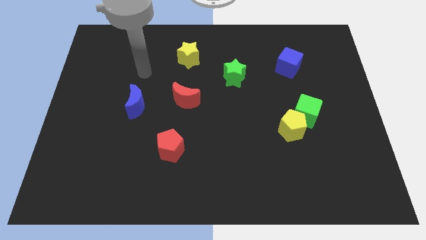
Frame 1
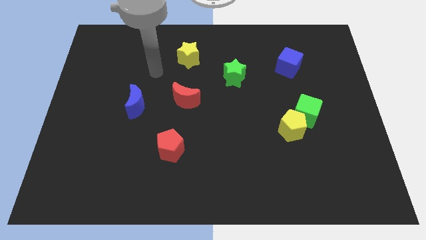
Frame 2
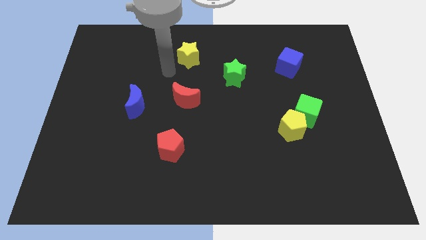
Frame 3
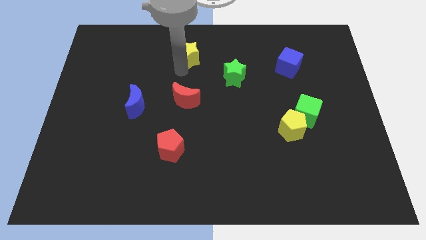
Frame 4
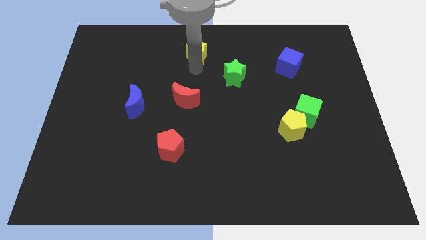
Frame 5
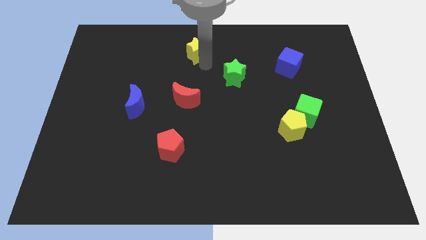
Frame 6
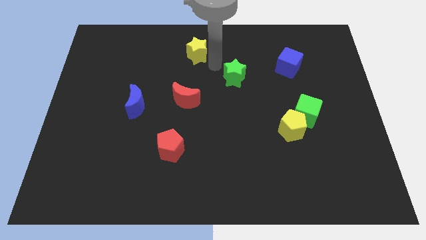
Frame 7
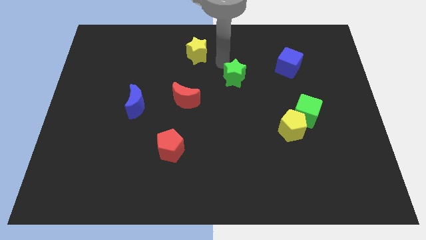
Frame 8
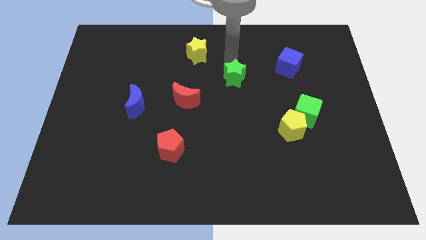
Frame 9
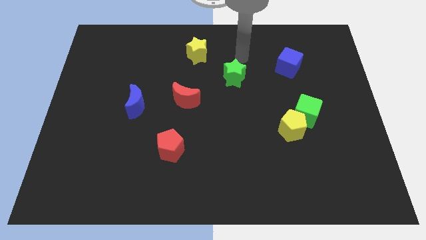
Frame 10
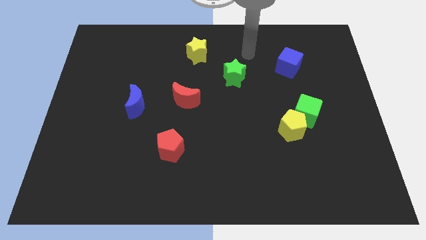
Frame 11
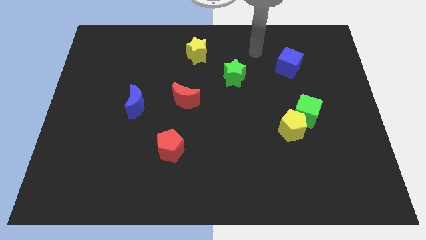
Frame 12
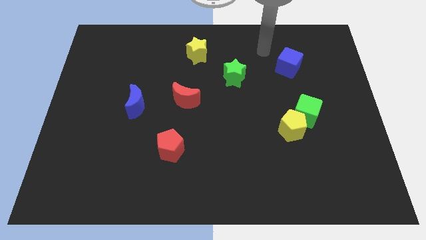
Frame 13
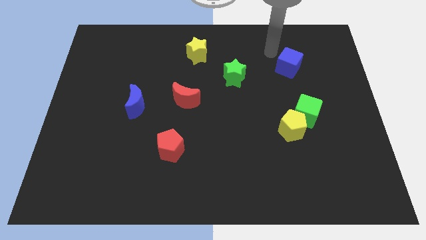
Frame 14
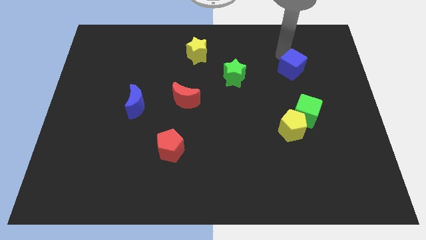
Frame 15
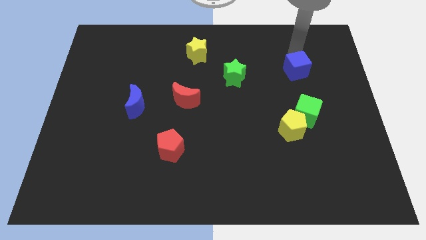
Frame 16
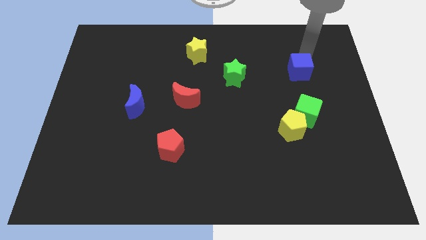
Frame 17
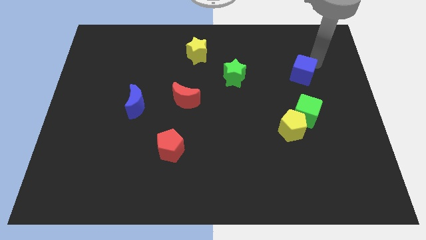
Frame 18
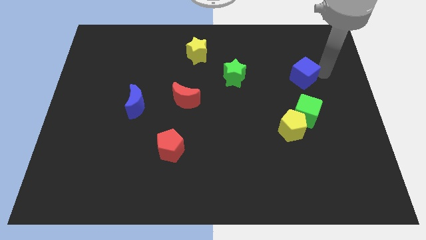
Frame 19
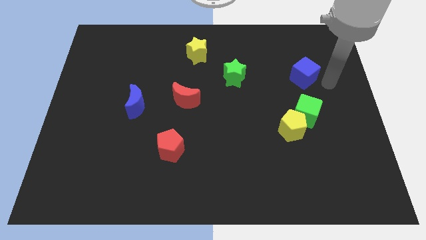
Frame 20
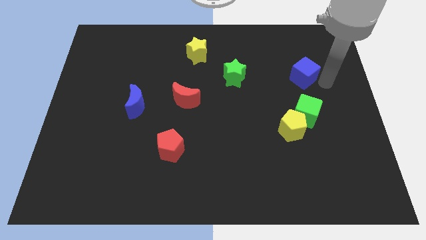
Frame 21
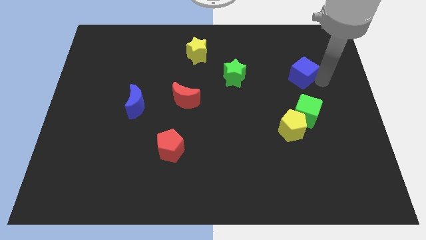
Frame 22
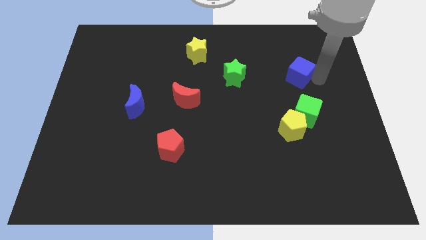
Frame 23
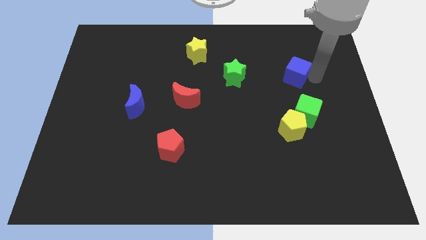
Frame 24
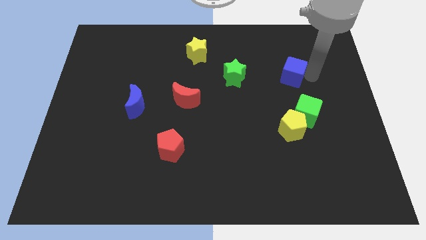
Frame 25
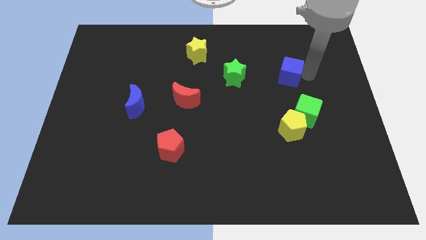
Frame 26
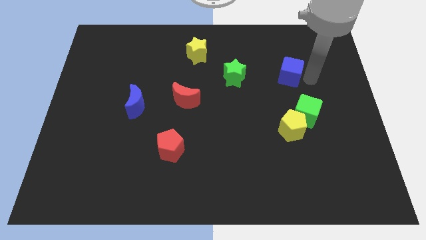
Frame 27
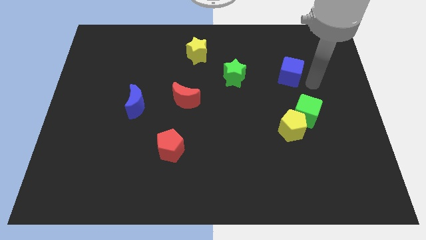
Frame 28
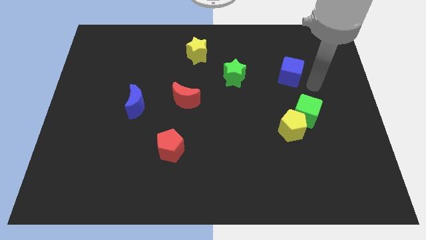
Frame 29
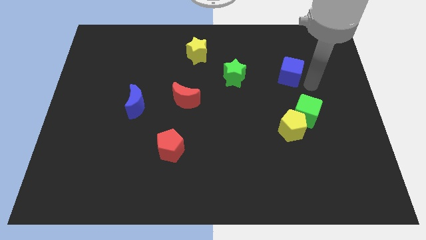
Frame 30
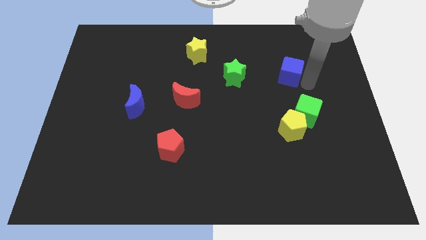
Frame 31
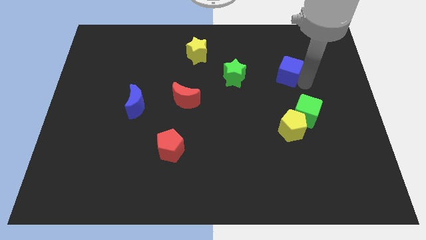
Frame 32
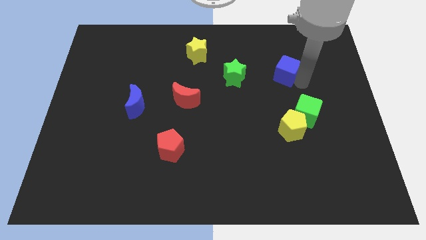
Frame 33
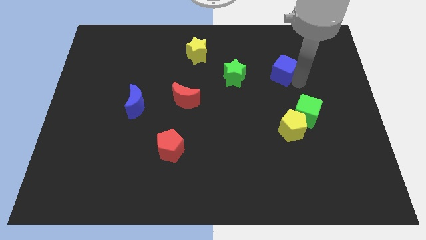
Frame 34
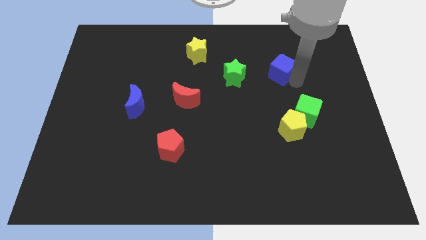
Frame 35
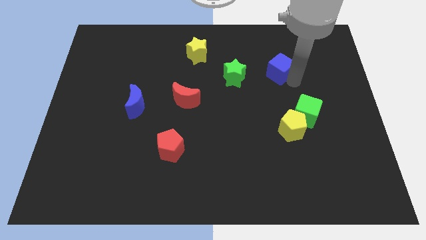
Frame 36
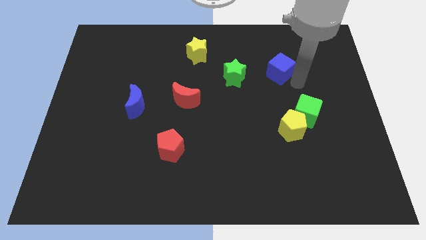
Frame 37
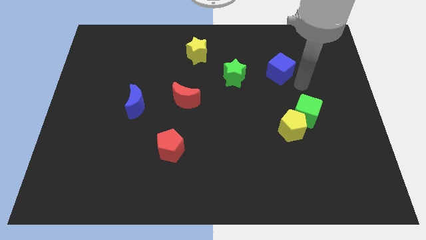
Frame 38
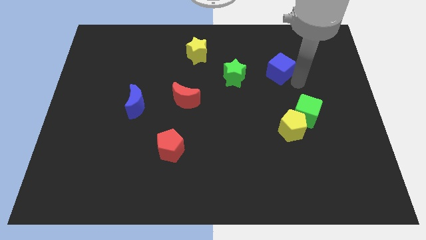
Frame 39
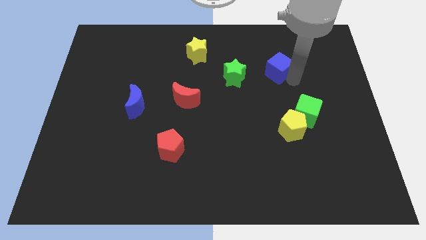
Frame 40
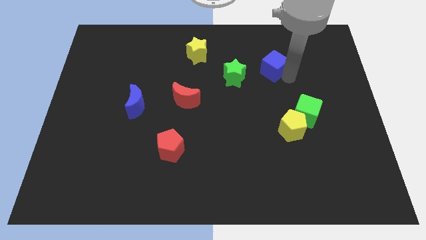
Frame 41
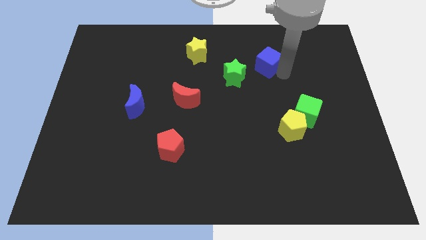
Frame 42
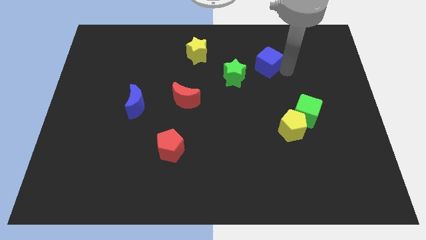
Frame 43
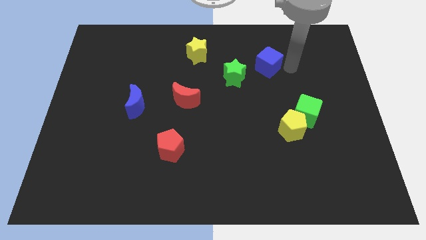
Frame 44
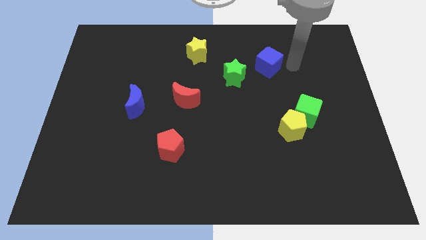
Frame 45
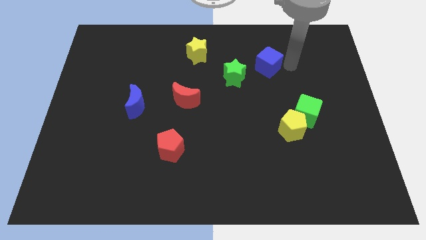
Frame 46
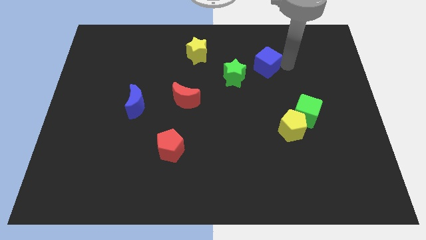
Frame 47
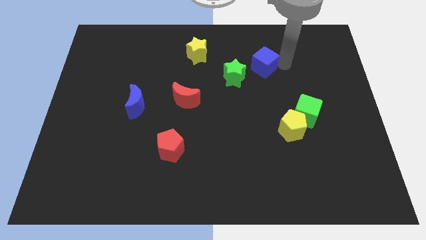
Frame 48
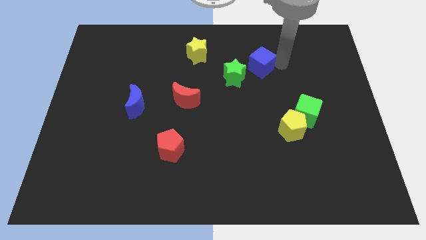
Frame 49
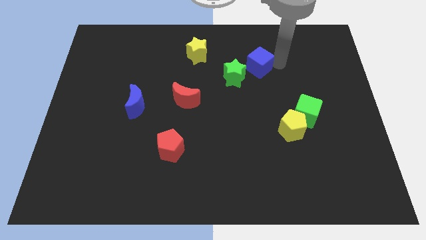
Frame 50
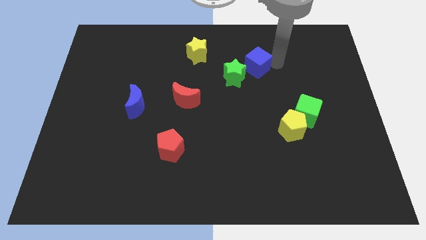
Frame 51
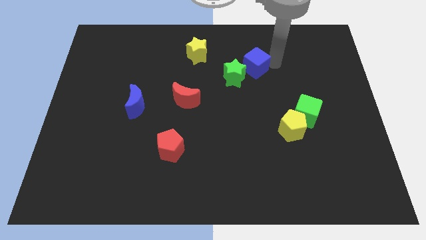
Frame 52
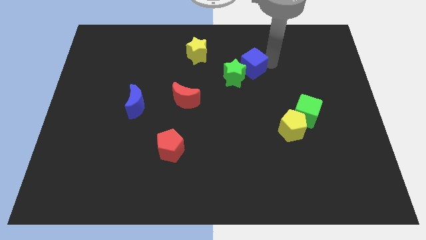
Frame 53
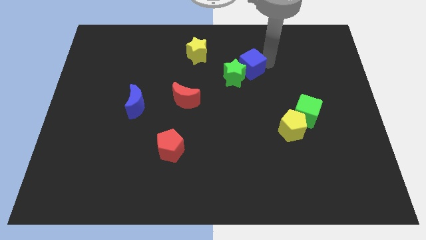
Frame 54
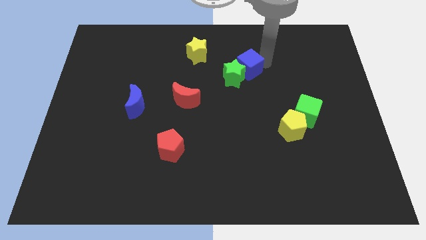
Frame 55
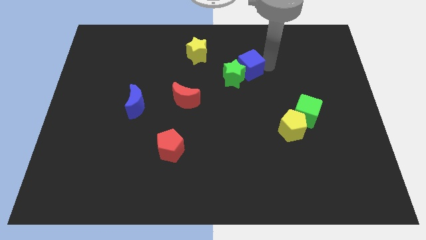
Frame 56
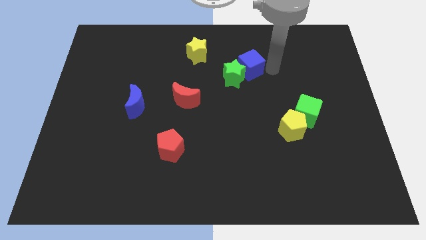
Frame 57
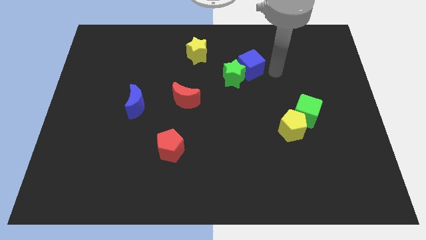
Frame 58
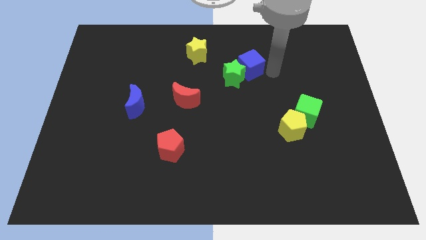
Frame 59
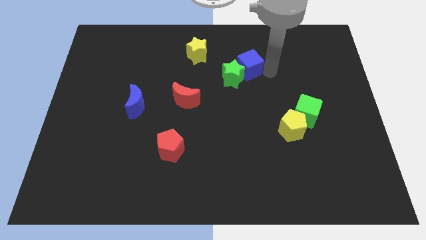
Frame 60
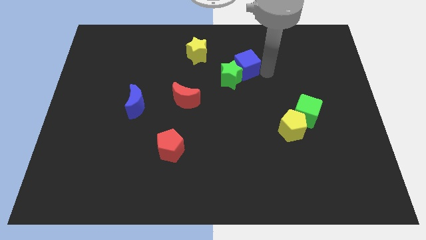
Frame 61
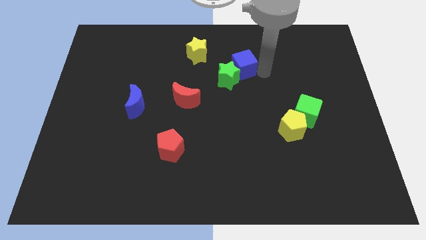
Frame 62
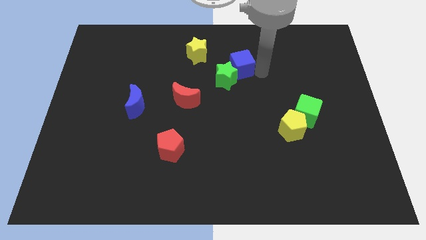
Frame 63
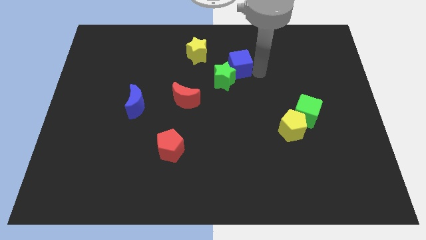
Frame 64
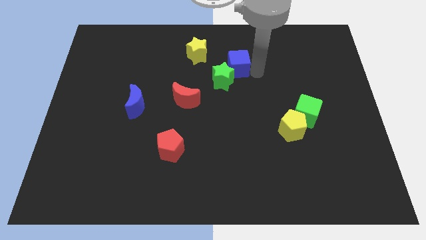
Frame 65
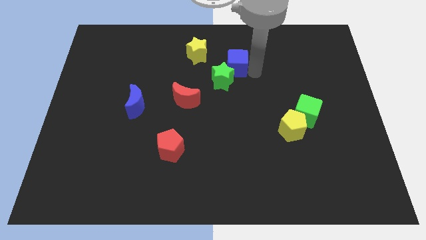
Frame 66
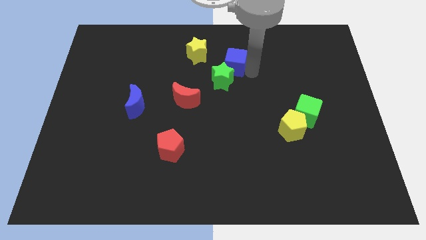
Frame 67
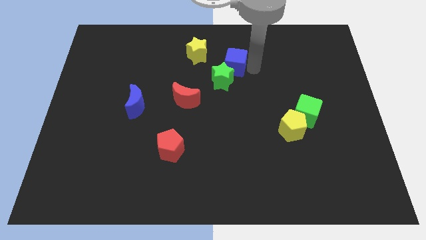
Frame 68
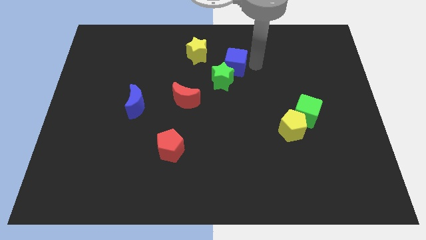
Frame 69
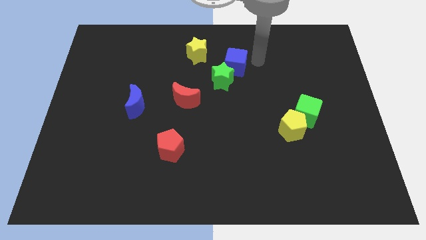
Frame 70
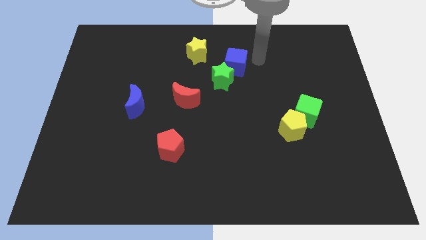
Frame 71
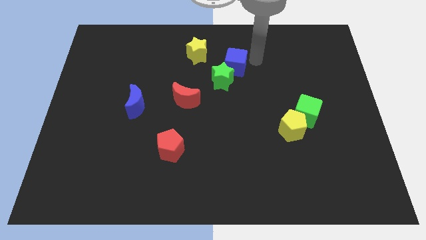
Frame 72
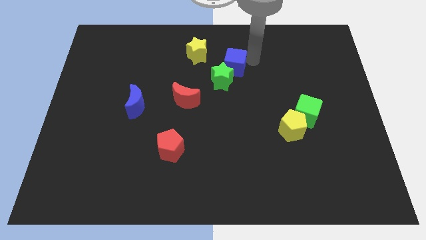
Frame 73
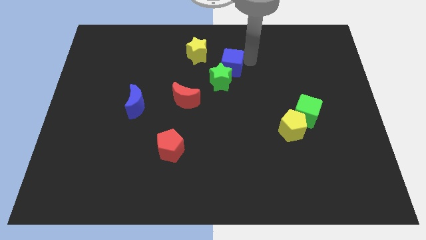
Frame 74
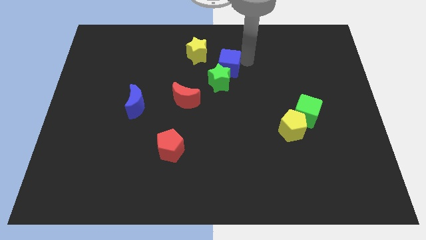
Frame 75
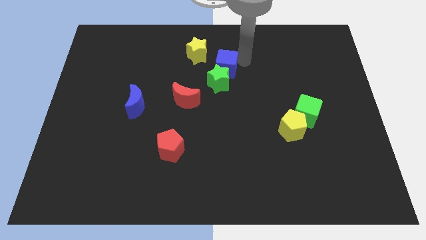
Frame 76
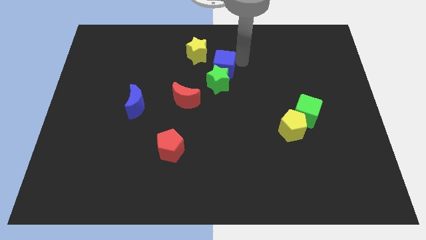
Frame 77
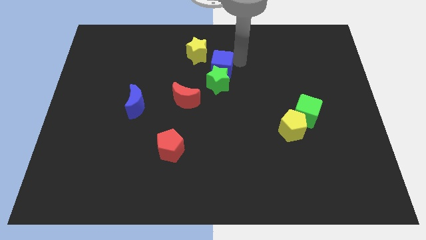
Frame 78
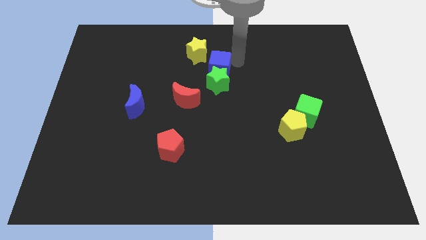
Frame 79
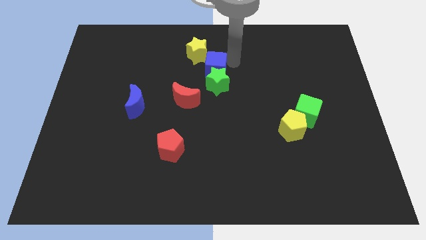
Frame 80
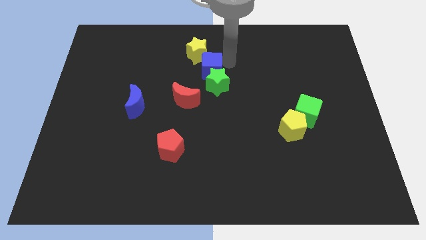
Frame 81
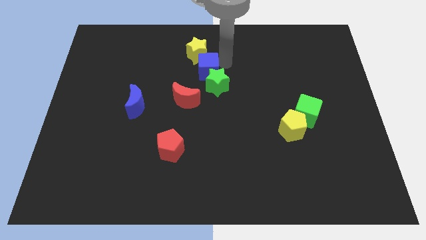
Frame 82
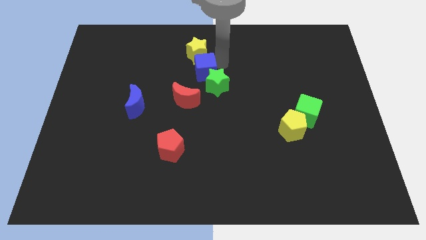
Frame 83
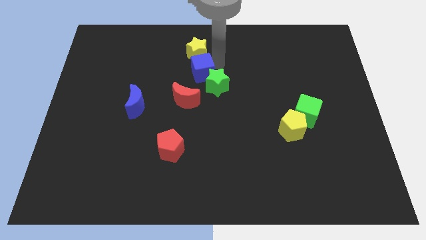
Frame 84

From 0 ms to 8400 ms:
slide the blue cube just left of the green star
